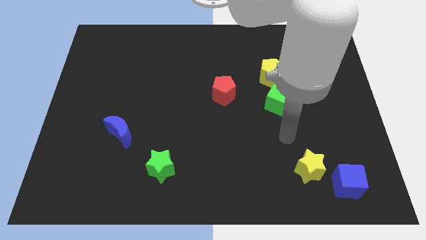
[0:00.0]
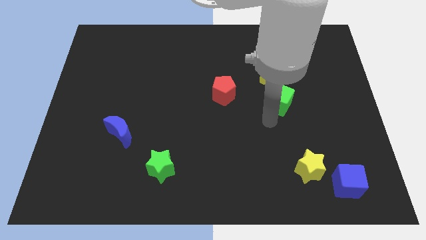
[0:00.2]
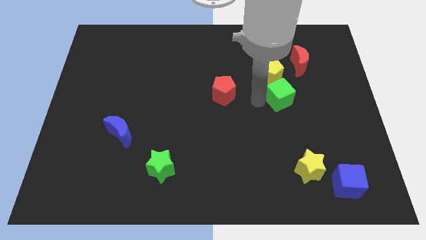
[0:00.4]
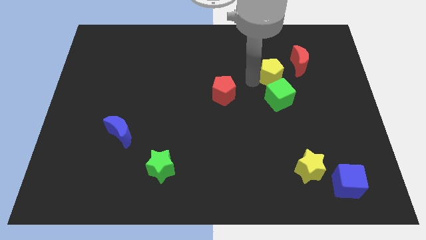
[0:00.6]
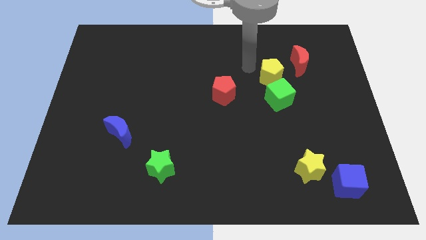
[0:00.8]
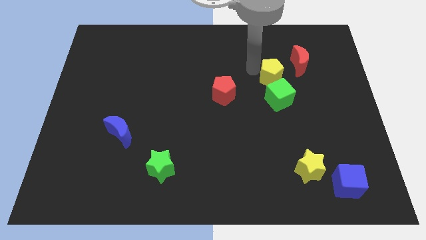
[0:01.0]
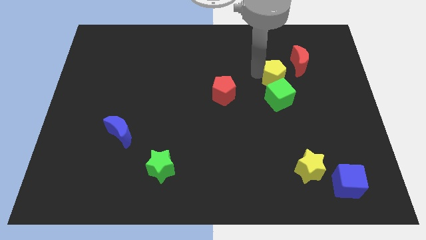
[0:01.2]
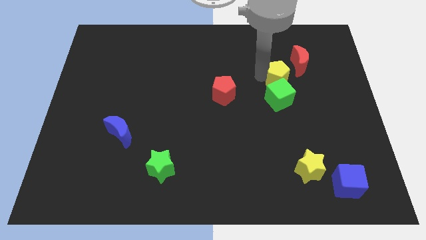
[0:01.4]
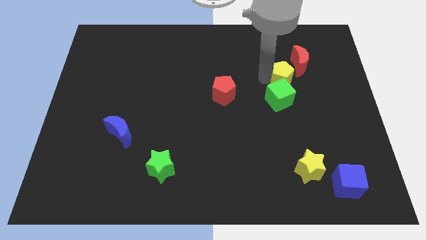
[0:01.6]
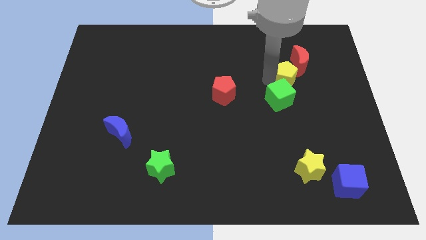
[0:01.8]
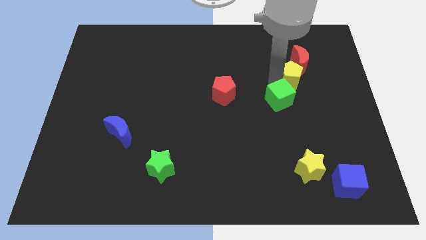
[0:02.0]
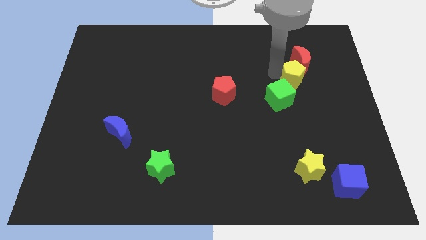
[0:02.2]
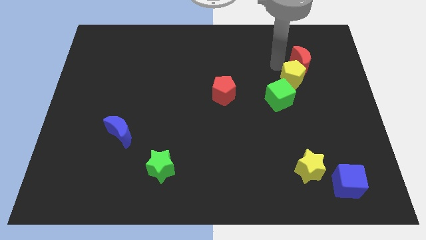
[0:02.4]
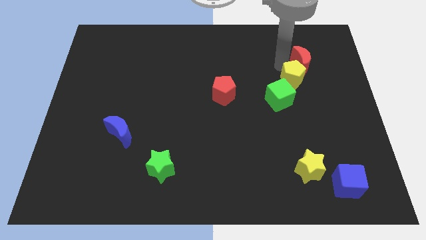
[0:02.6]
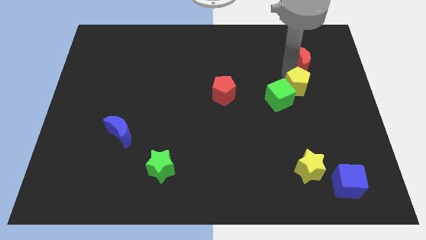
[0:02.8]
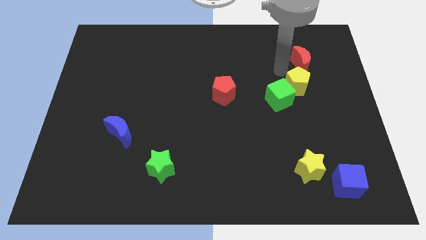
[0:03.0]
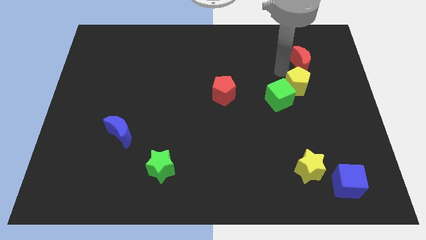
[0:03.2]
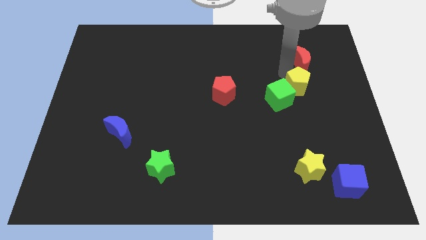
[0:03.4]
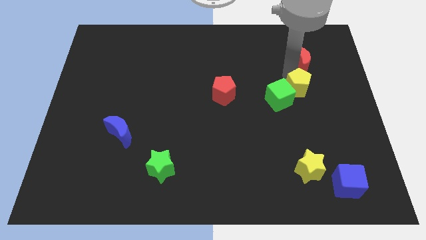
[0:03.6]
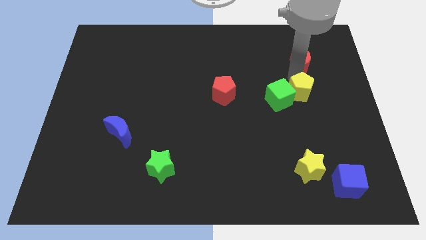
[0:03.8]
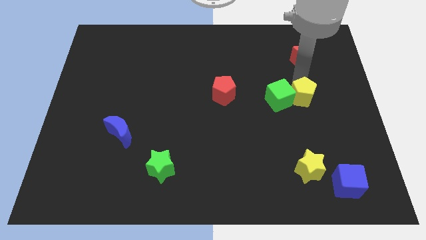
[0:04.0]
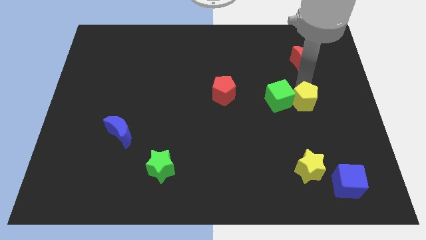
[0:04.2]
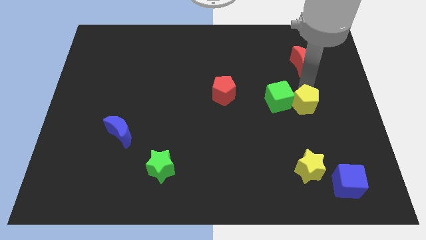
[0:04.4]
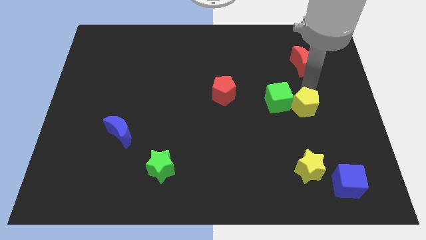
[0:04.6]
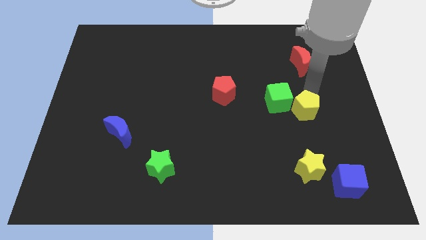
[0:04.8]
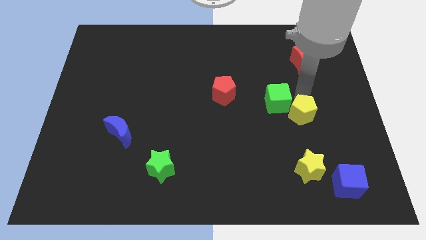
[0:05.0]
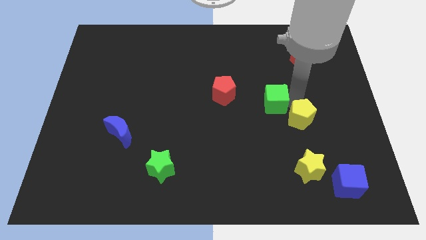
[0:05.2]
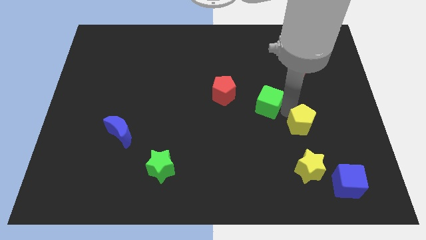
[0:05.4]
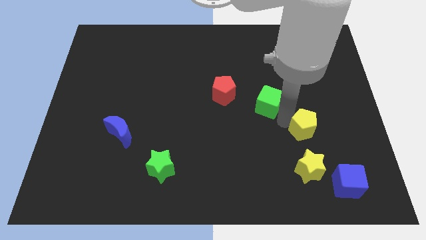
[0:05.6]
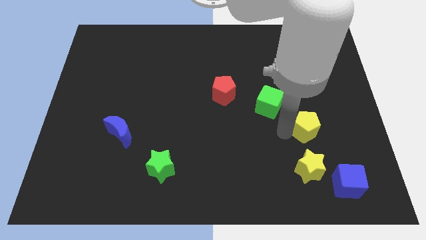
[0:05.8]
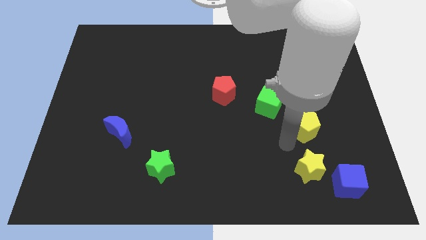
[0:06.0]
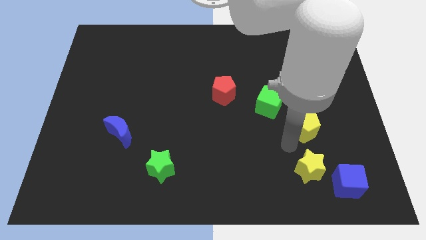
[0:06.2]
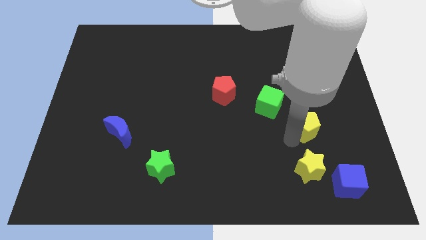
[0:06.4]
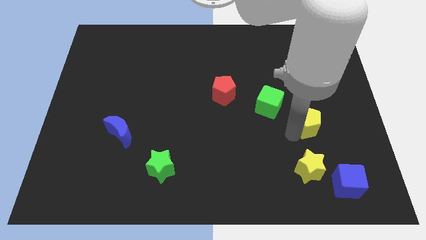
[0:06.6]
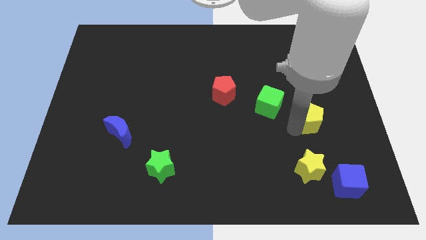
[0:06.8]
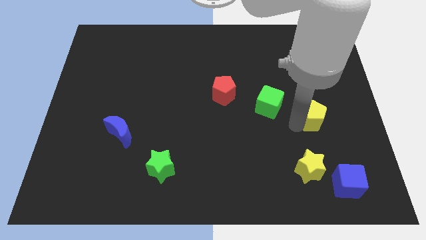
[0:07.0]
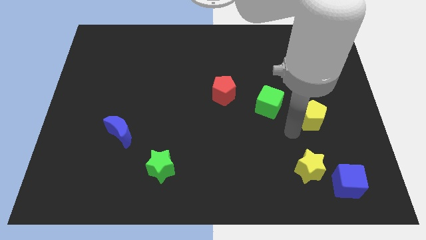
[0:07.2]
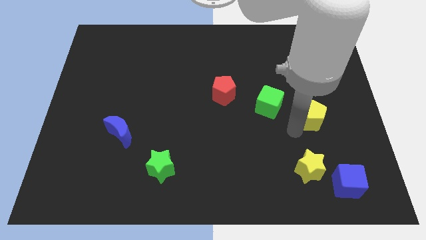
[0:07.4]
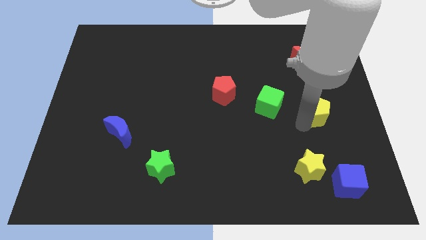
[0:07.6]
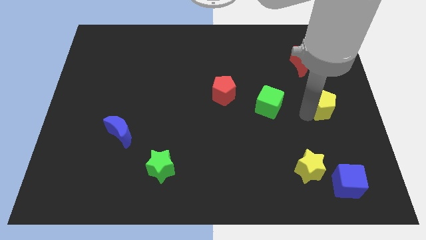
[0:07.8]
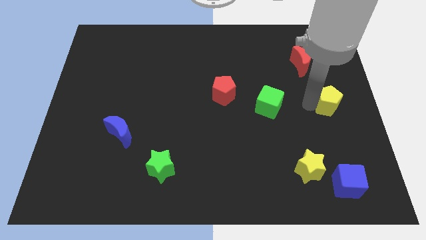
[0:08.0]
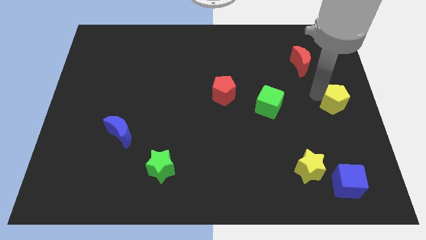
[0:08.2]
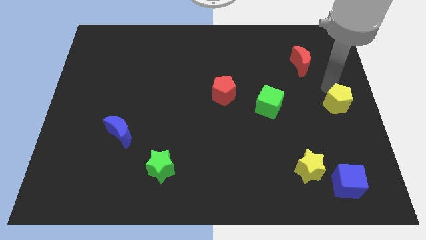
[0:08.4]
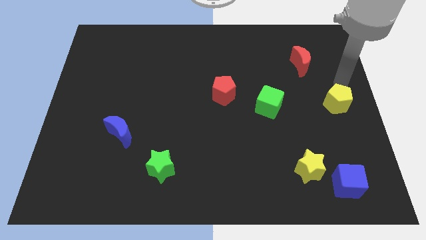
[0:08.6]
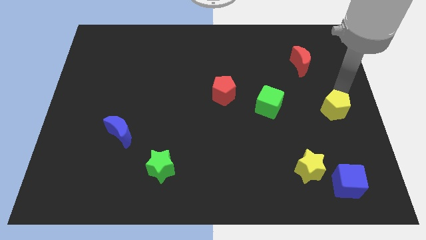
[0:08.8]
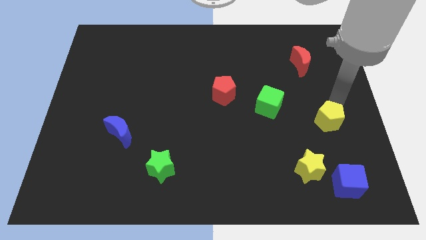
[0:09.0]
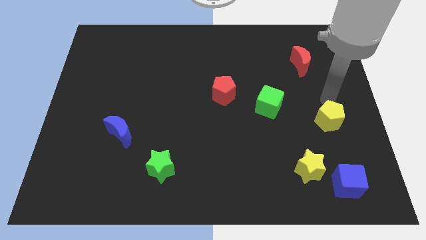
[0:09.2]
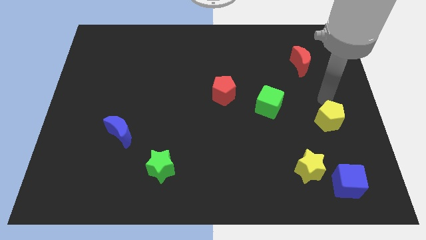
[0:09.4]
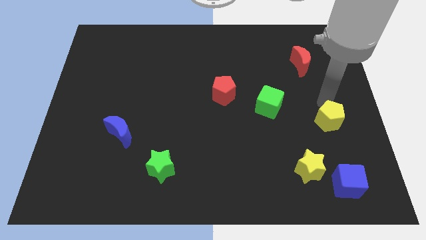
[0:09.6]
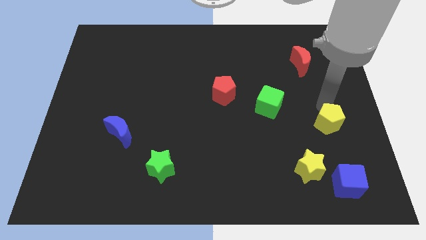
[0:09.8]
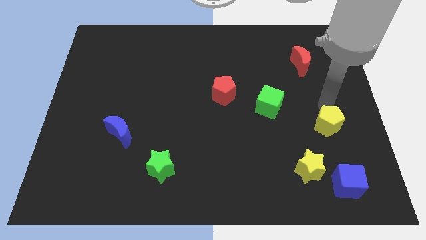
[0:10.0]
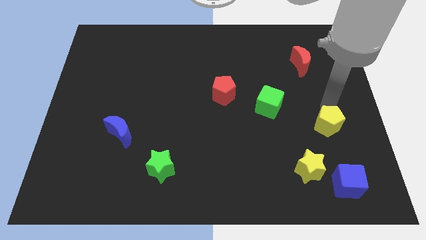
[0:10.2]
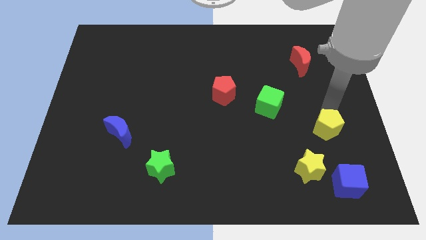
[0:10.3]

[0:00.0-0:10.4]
put the yellow pentagon diagonally up and to the right of the yellow star

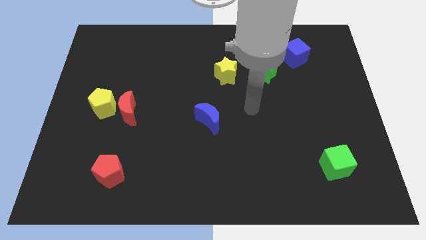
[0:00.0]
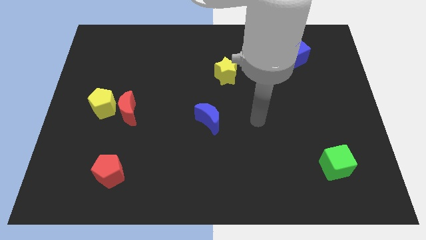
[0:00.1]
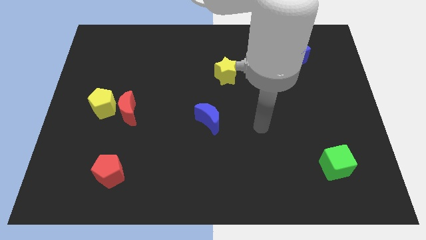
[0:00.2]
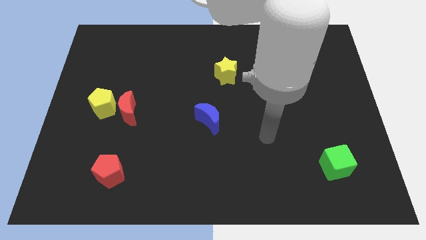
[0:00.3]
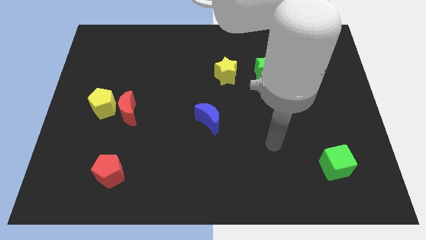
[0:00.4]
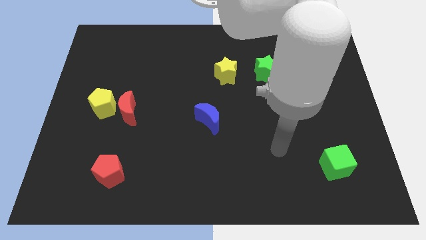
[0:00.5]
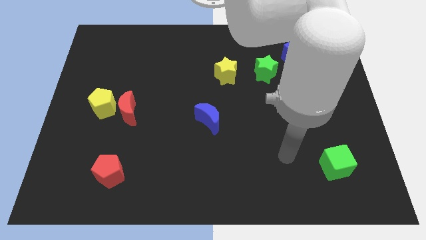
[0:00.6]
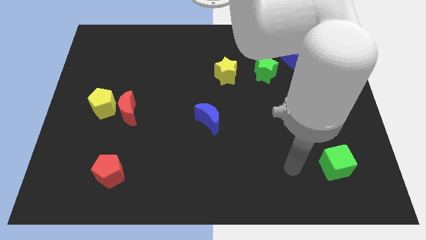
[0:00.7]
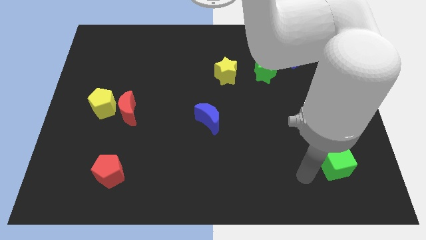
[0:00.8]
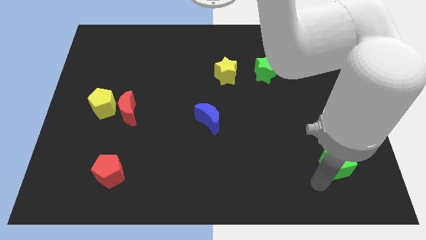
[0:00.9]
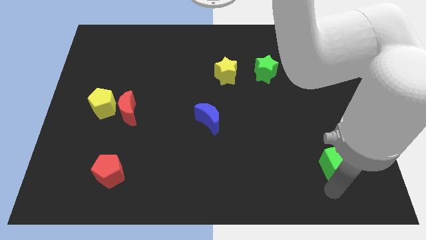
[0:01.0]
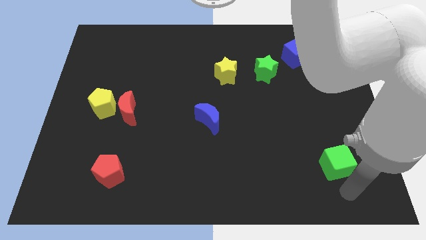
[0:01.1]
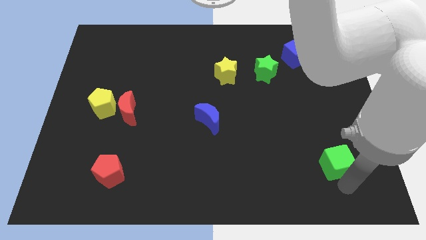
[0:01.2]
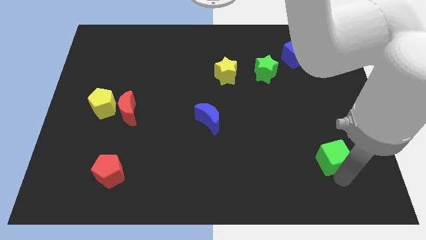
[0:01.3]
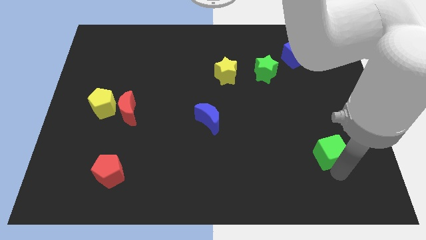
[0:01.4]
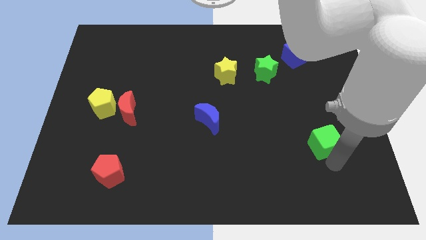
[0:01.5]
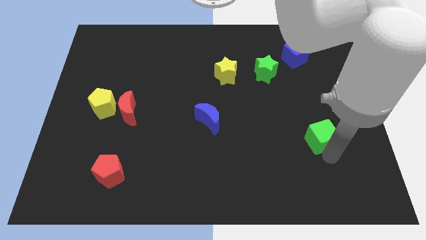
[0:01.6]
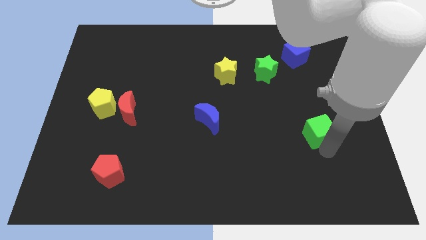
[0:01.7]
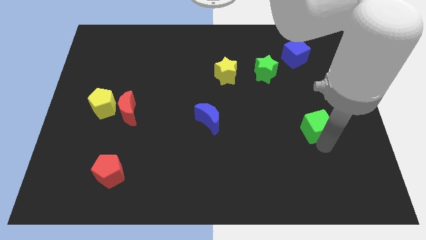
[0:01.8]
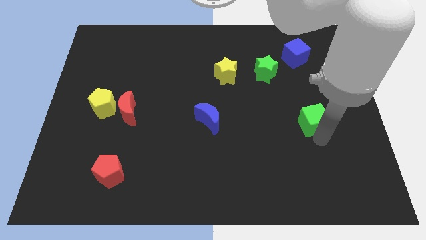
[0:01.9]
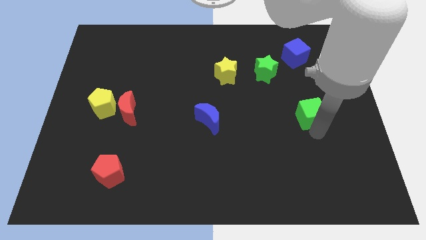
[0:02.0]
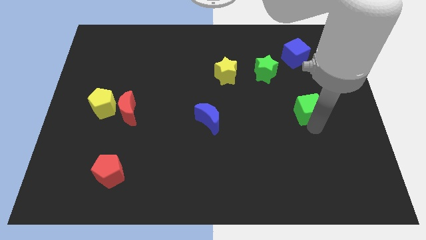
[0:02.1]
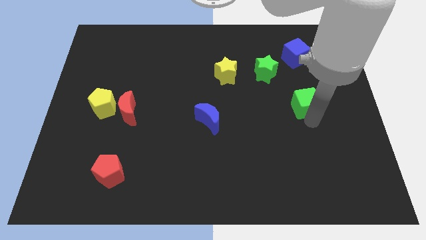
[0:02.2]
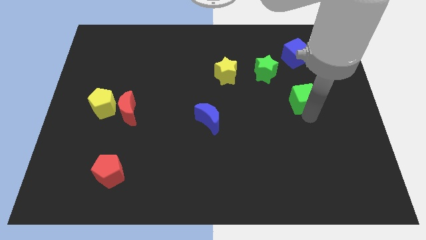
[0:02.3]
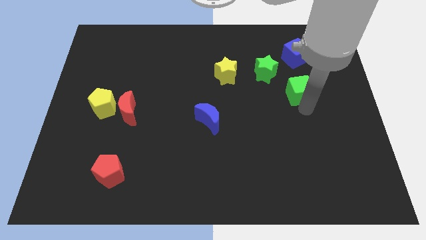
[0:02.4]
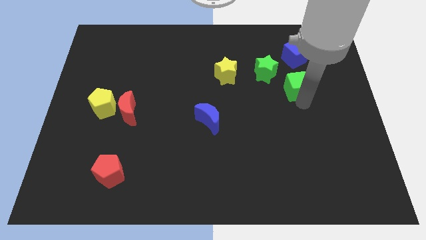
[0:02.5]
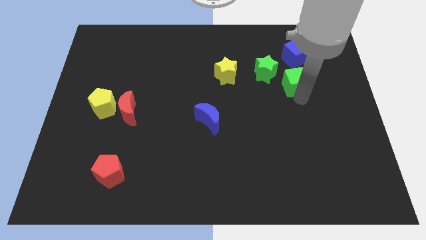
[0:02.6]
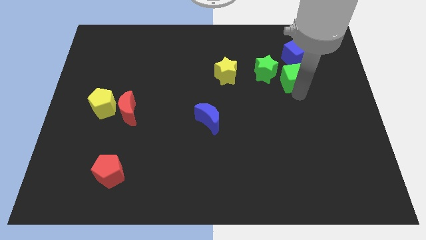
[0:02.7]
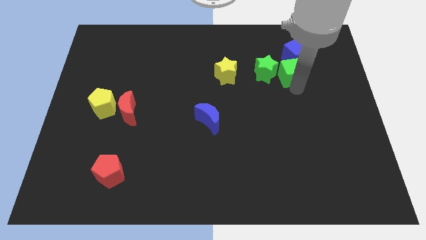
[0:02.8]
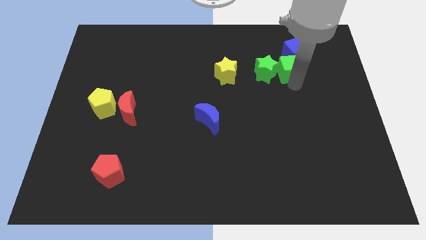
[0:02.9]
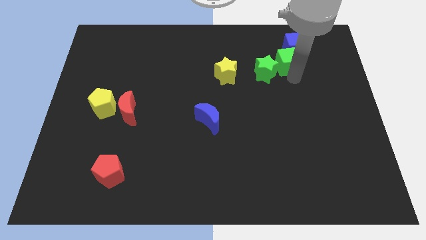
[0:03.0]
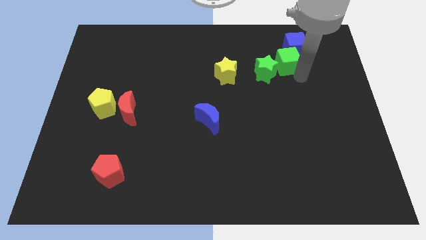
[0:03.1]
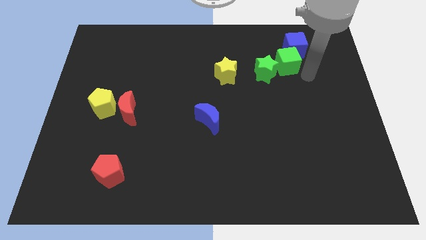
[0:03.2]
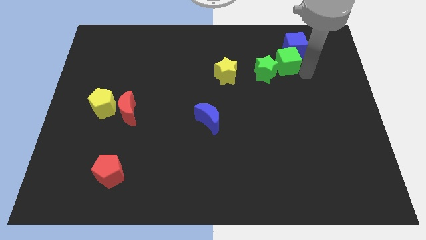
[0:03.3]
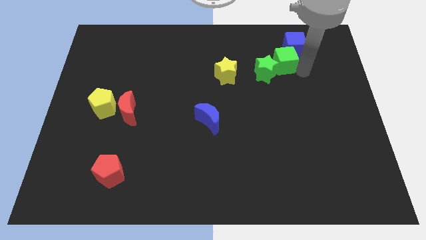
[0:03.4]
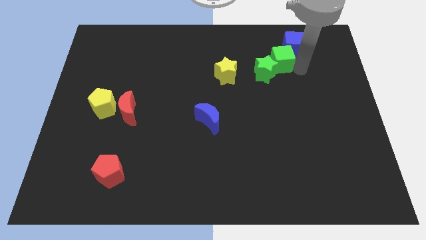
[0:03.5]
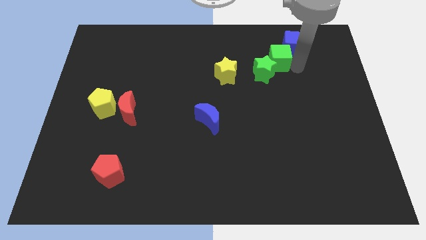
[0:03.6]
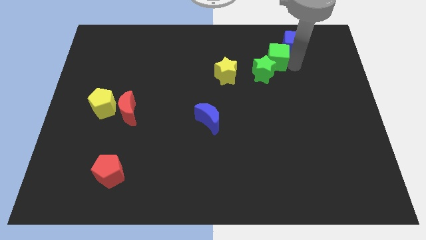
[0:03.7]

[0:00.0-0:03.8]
push the green cube left of the blue cube
